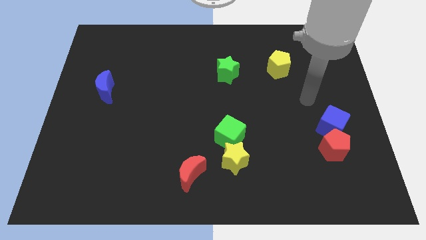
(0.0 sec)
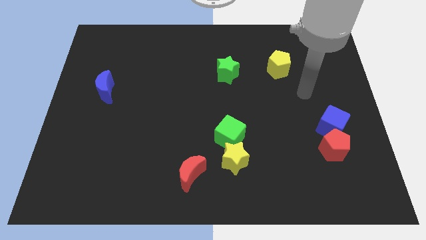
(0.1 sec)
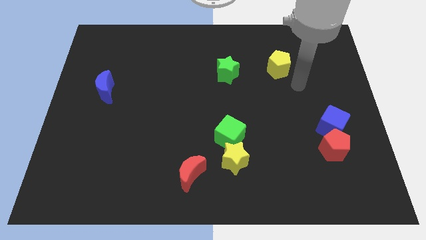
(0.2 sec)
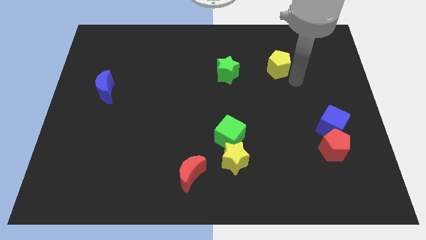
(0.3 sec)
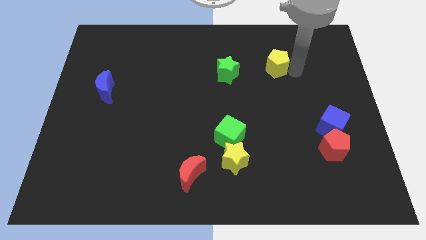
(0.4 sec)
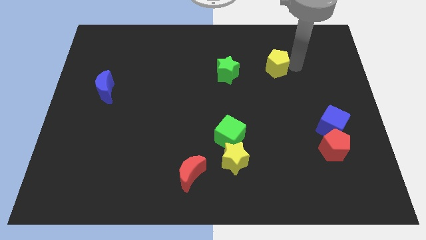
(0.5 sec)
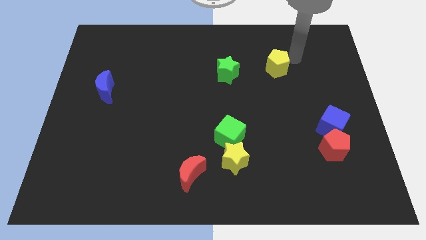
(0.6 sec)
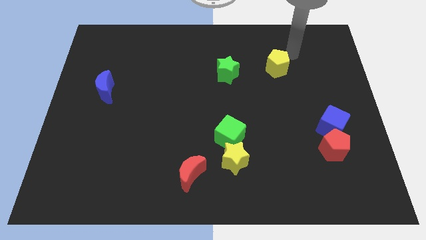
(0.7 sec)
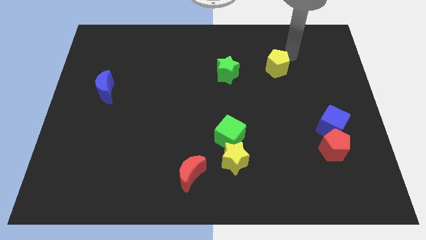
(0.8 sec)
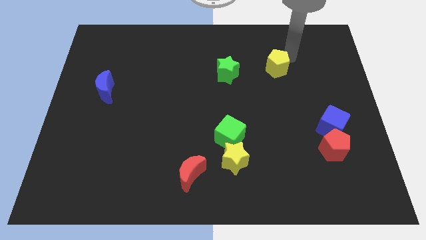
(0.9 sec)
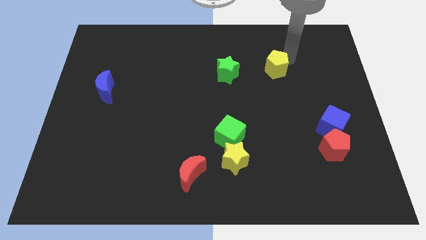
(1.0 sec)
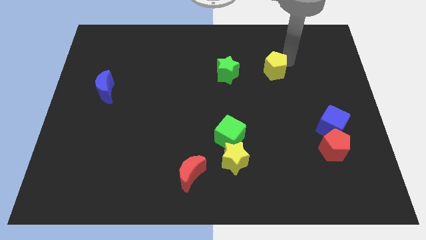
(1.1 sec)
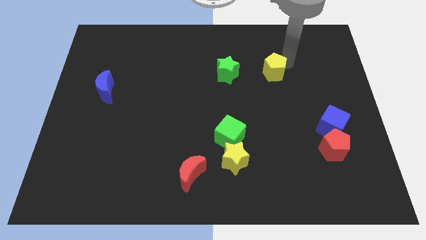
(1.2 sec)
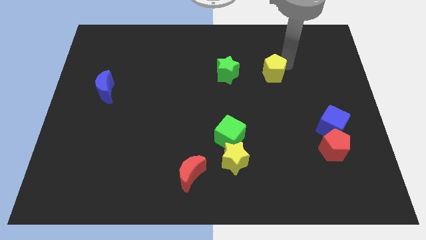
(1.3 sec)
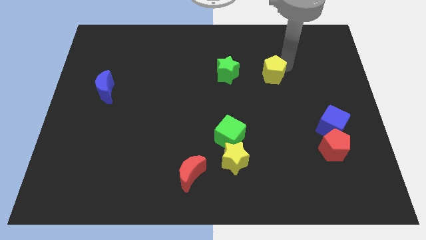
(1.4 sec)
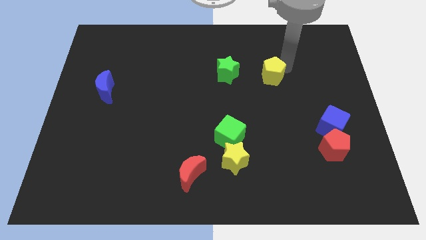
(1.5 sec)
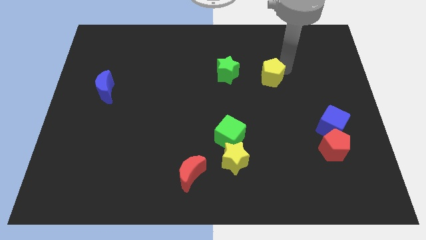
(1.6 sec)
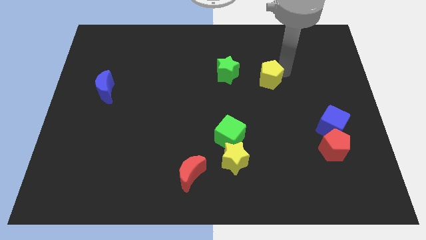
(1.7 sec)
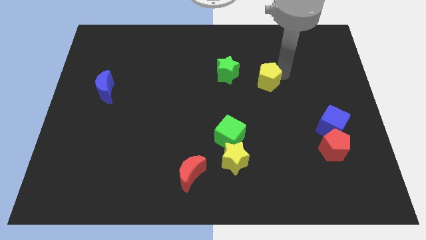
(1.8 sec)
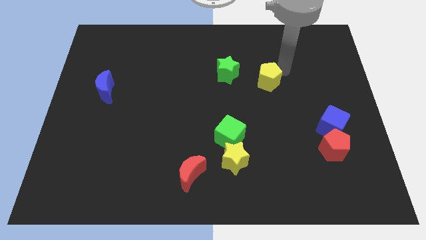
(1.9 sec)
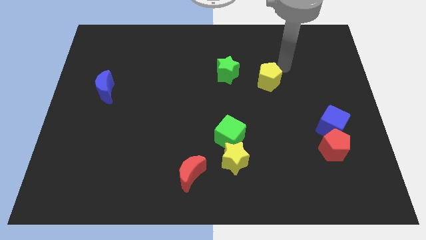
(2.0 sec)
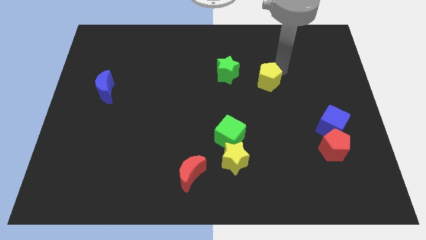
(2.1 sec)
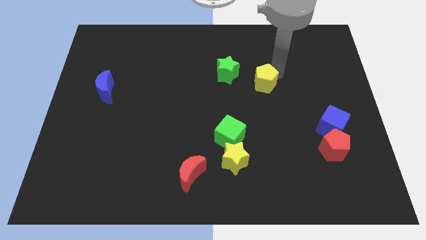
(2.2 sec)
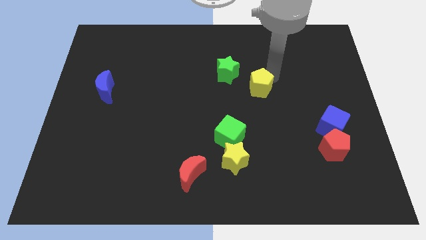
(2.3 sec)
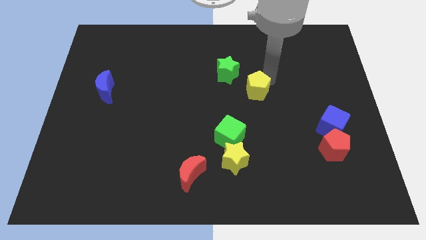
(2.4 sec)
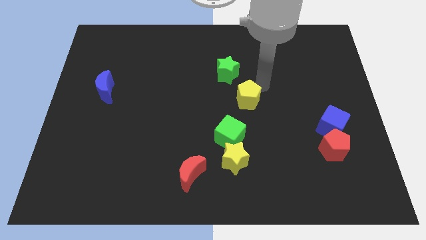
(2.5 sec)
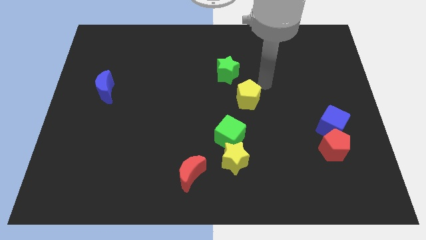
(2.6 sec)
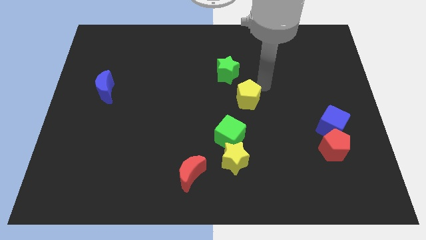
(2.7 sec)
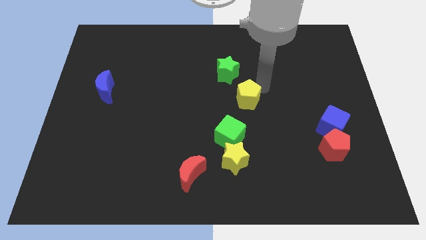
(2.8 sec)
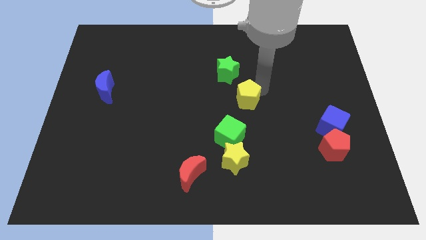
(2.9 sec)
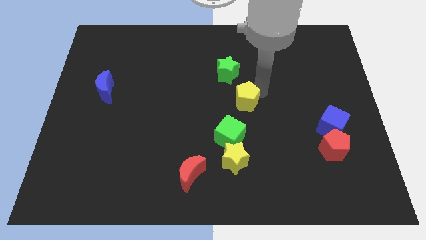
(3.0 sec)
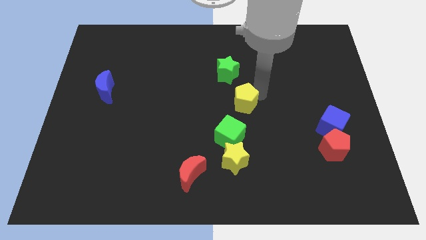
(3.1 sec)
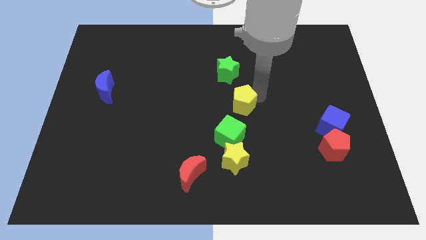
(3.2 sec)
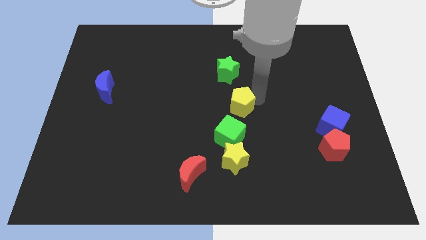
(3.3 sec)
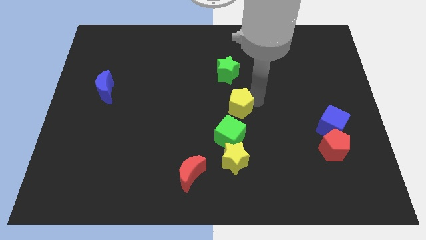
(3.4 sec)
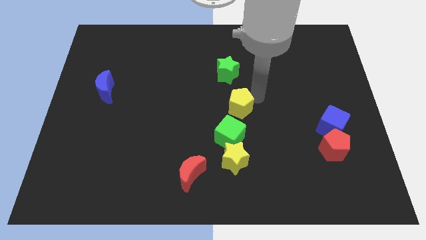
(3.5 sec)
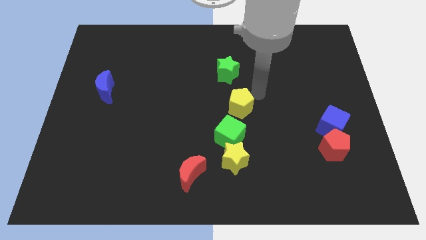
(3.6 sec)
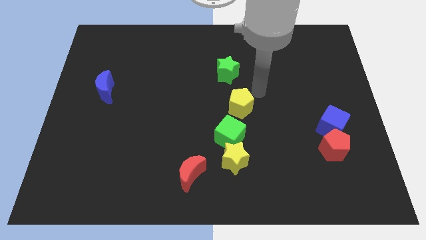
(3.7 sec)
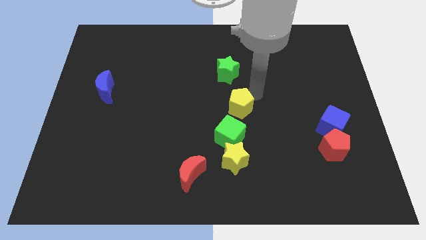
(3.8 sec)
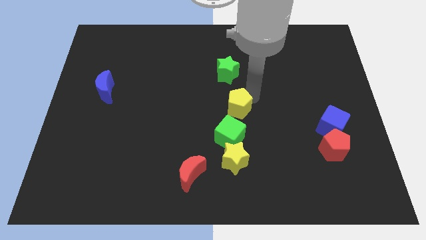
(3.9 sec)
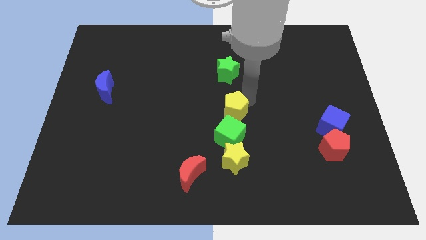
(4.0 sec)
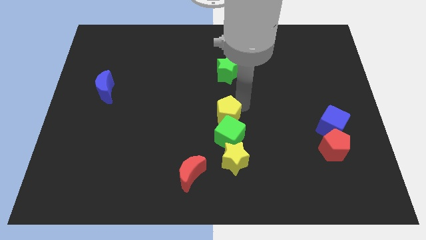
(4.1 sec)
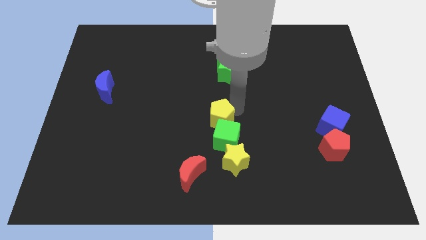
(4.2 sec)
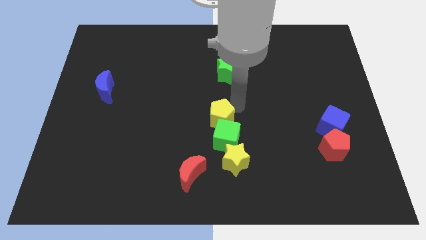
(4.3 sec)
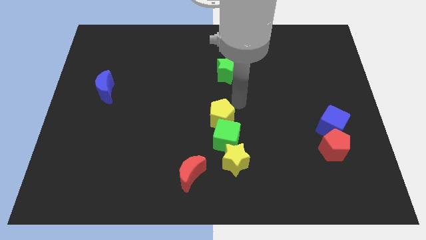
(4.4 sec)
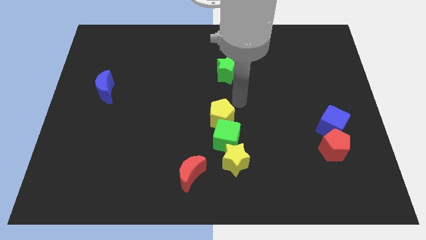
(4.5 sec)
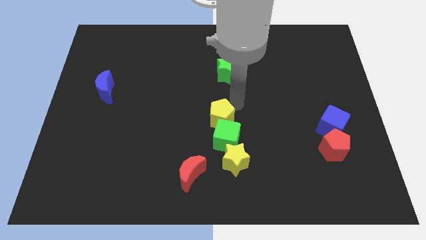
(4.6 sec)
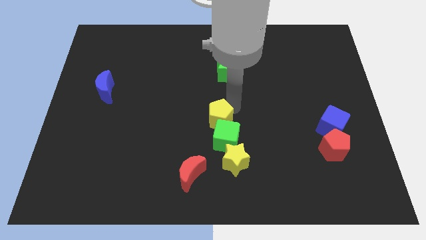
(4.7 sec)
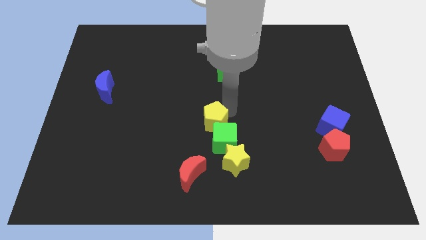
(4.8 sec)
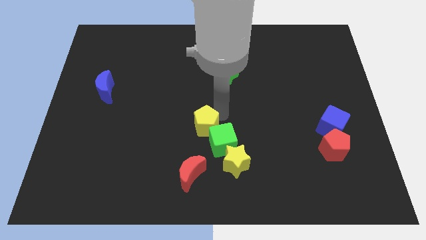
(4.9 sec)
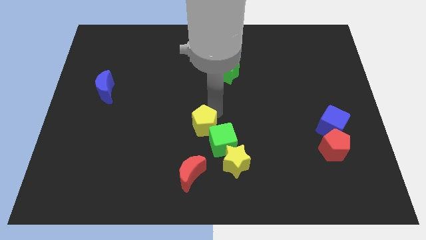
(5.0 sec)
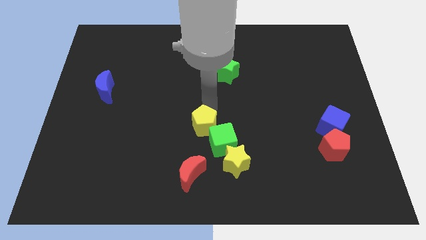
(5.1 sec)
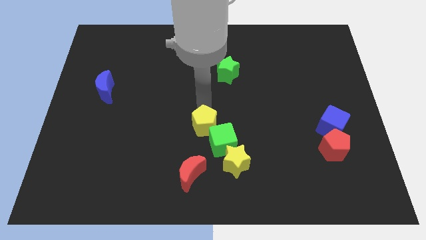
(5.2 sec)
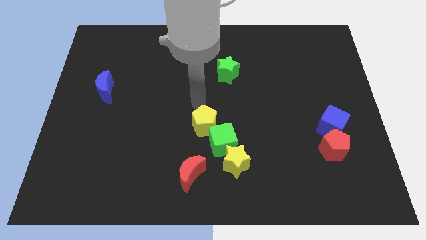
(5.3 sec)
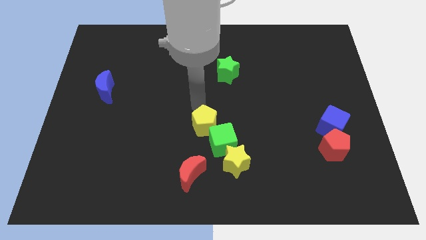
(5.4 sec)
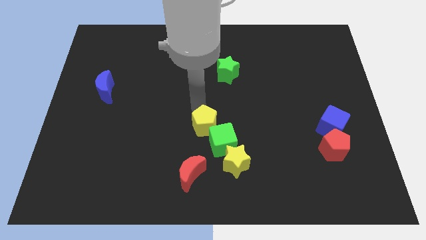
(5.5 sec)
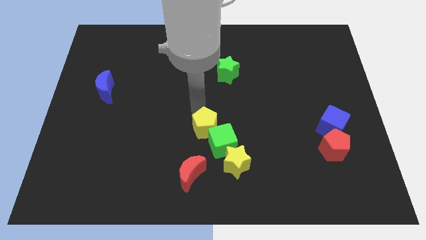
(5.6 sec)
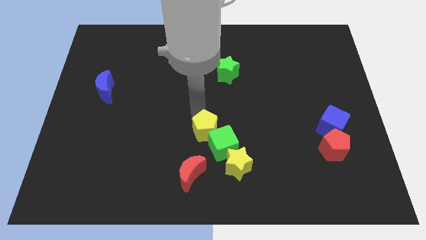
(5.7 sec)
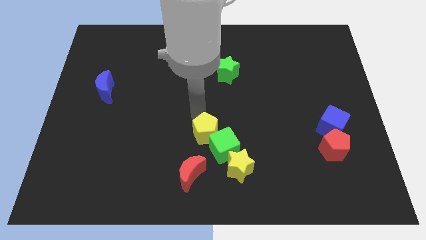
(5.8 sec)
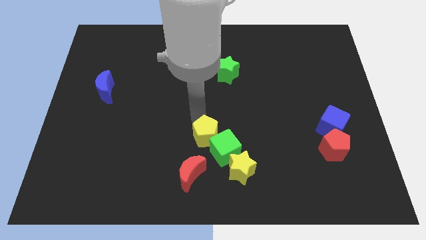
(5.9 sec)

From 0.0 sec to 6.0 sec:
move the yellow pentagon diagonally up and to the right of the red moon

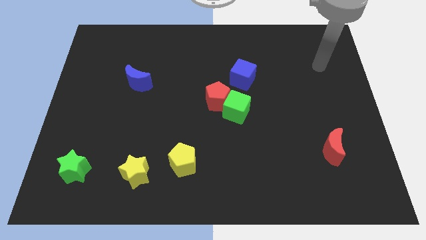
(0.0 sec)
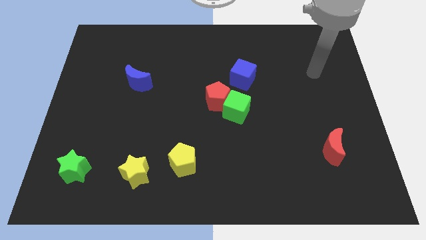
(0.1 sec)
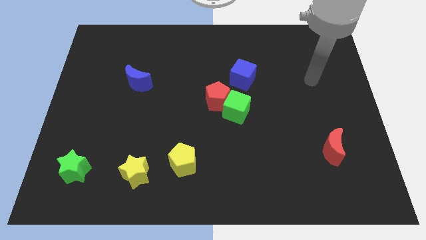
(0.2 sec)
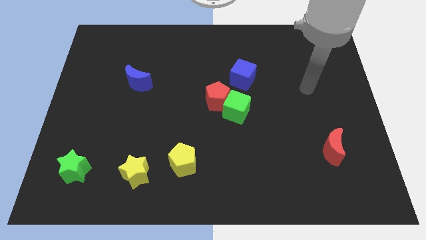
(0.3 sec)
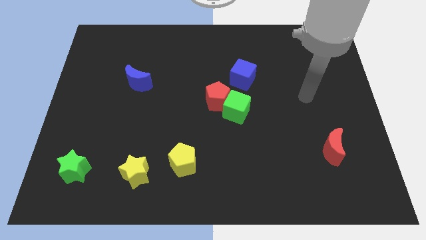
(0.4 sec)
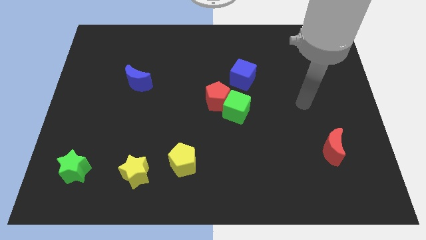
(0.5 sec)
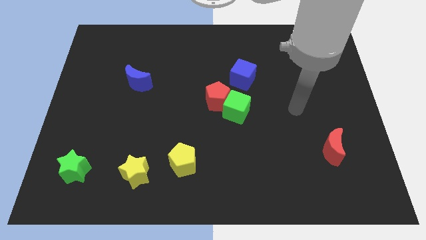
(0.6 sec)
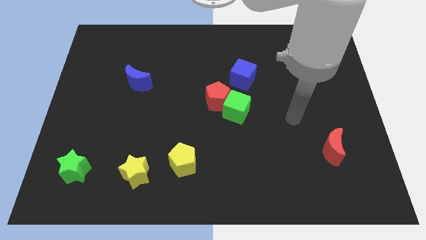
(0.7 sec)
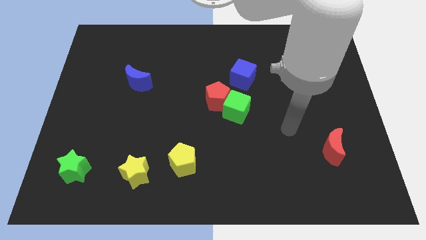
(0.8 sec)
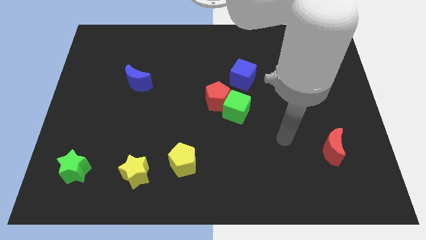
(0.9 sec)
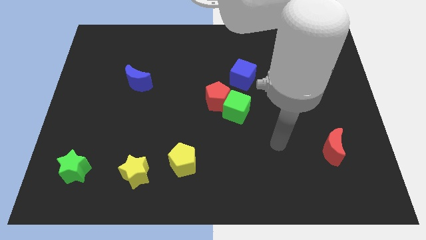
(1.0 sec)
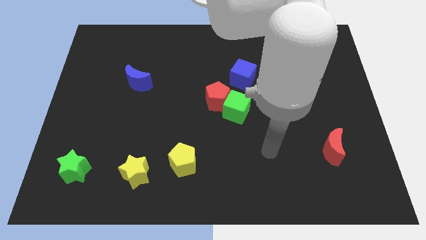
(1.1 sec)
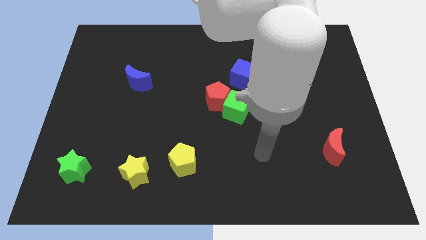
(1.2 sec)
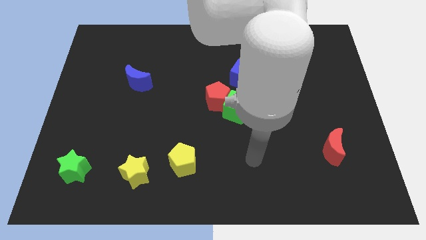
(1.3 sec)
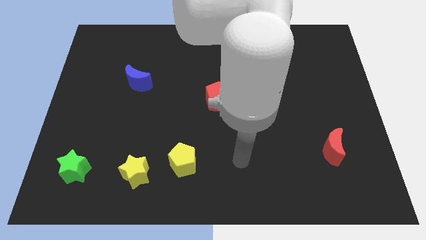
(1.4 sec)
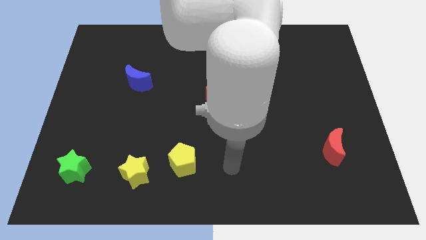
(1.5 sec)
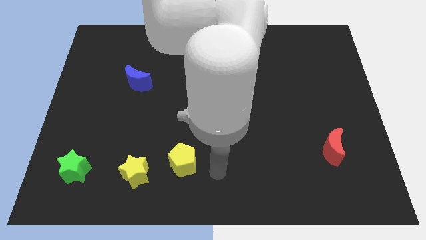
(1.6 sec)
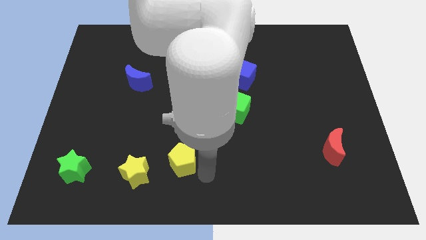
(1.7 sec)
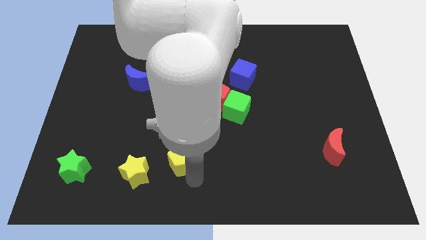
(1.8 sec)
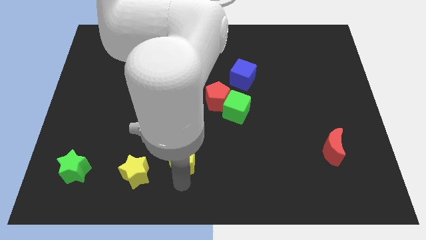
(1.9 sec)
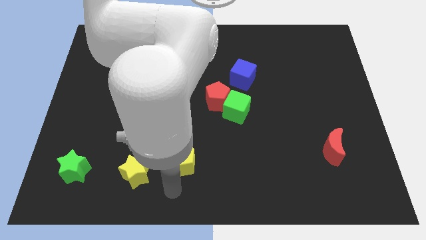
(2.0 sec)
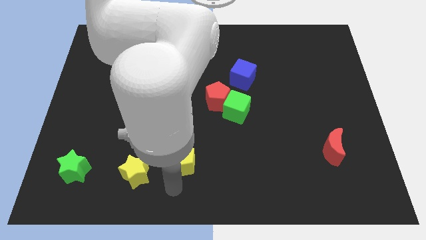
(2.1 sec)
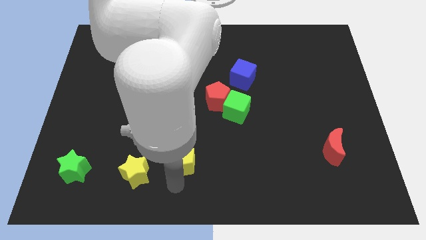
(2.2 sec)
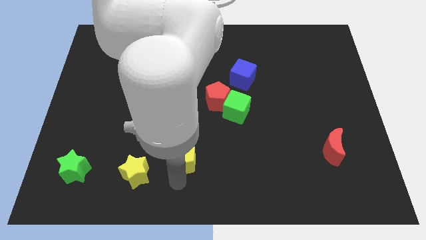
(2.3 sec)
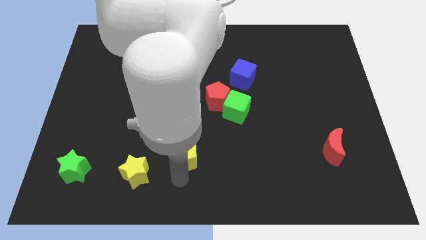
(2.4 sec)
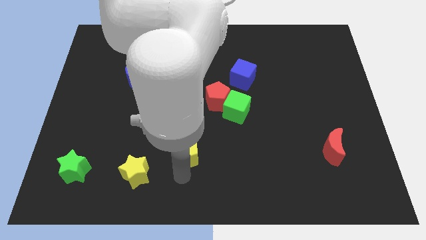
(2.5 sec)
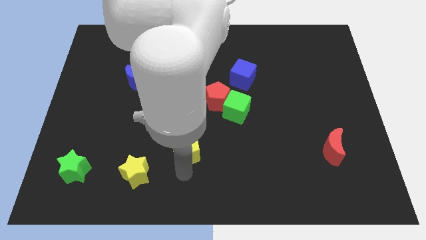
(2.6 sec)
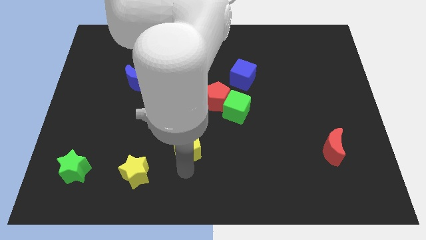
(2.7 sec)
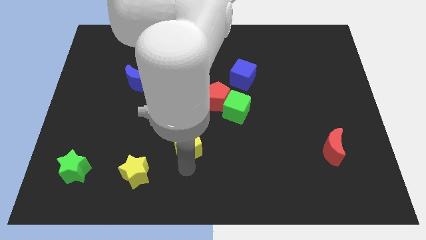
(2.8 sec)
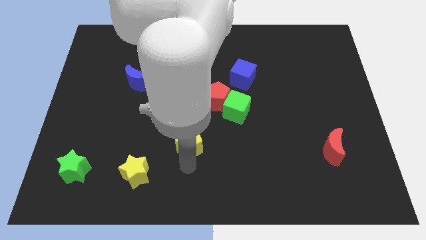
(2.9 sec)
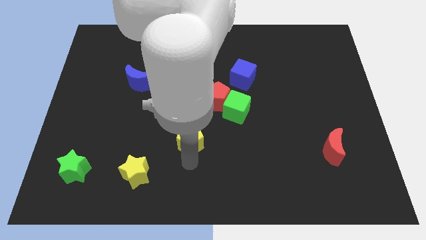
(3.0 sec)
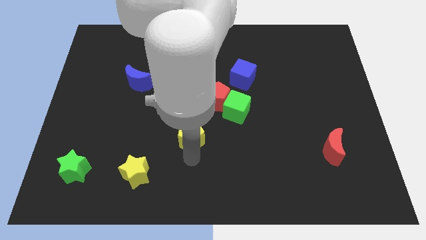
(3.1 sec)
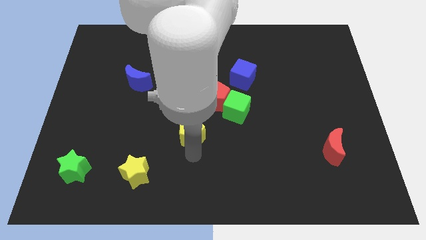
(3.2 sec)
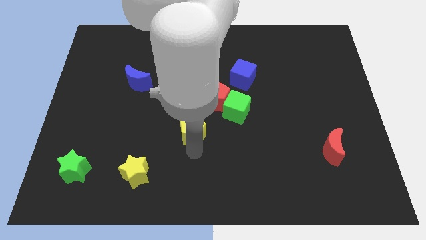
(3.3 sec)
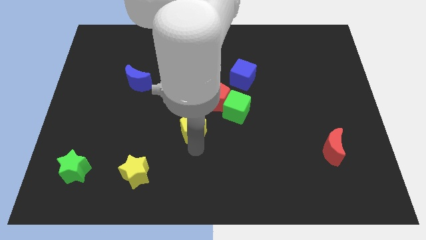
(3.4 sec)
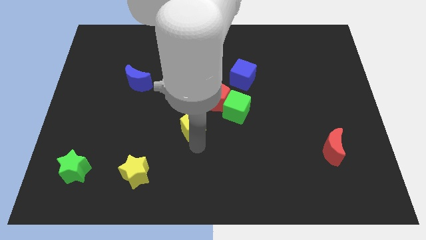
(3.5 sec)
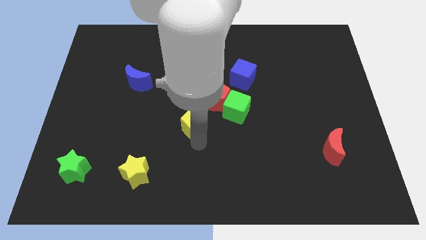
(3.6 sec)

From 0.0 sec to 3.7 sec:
push the yellow pentagon to the left side of the green cube
